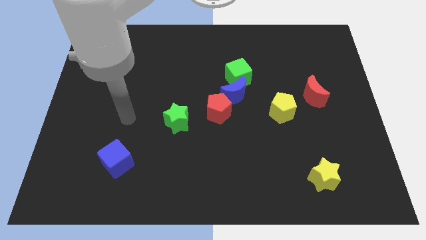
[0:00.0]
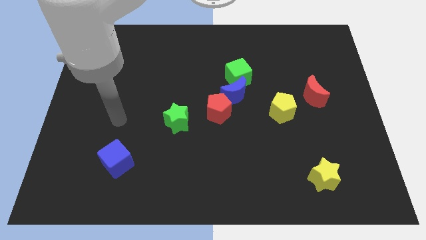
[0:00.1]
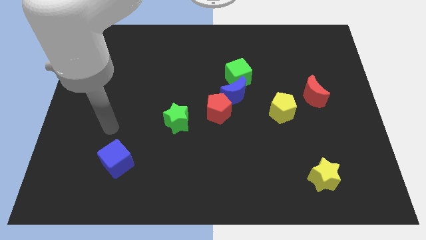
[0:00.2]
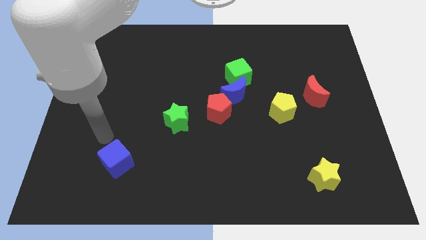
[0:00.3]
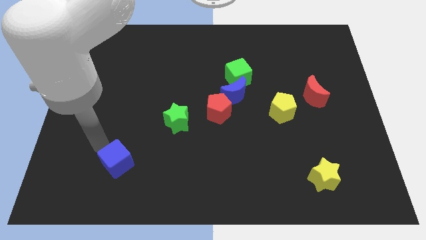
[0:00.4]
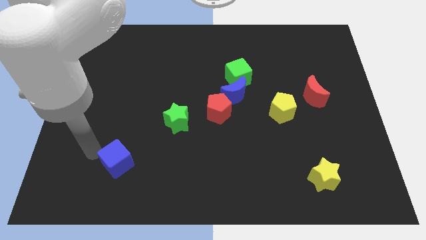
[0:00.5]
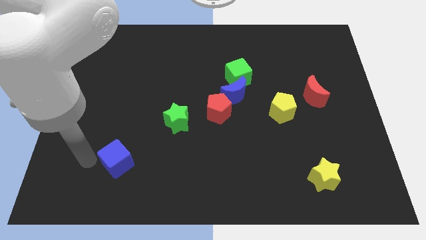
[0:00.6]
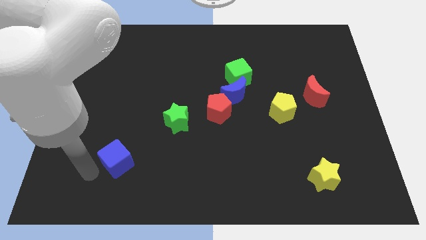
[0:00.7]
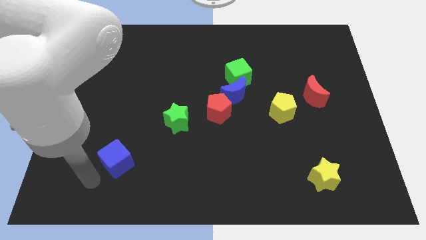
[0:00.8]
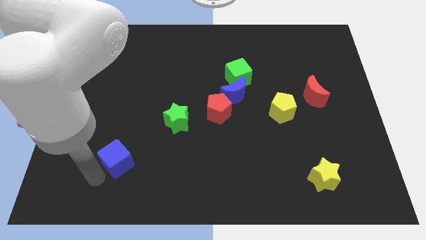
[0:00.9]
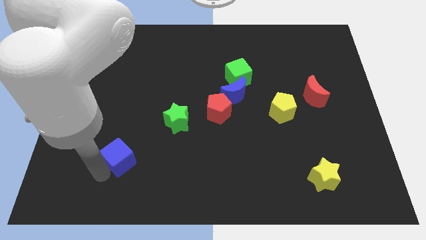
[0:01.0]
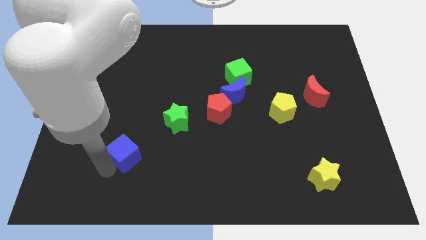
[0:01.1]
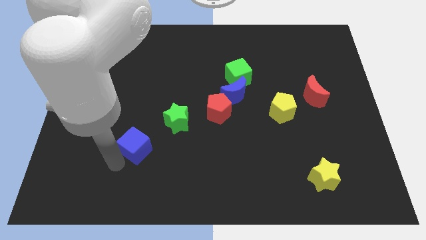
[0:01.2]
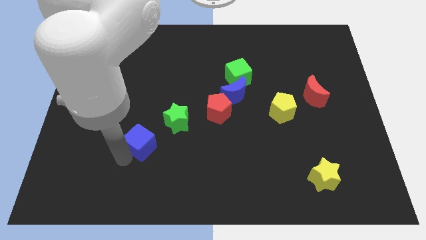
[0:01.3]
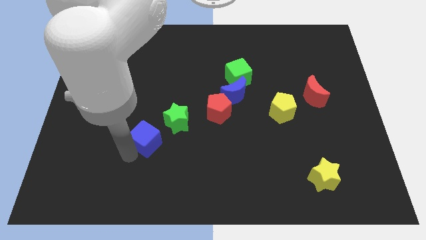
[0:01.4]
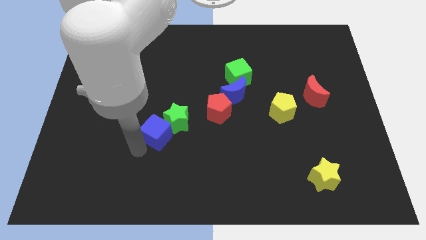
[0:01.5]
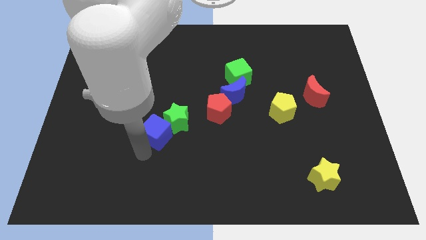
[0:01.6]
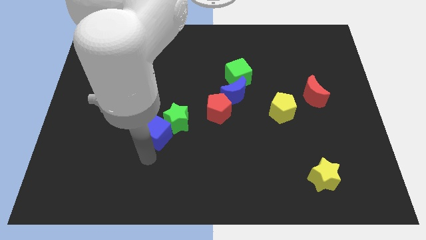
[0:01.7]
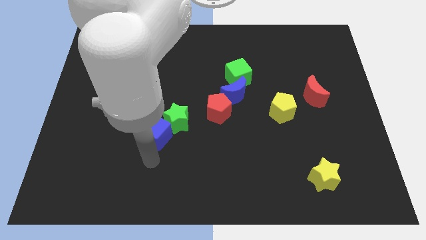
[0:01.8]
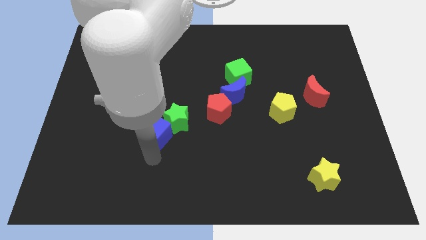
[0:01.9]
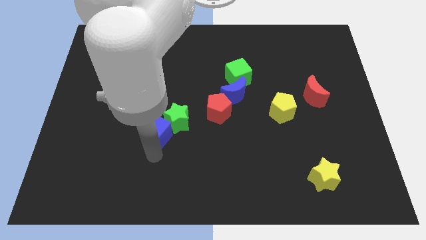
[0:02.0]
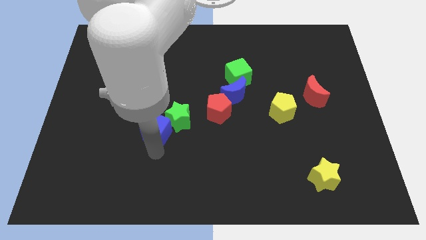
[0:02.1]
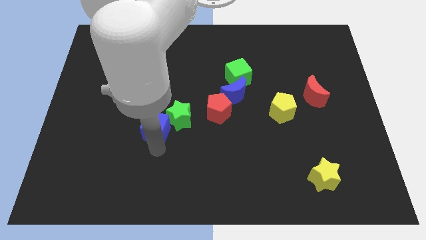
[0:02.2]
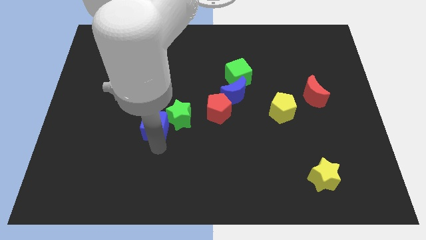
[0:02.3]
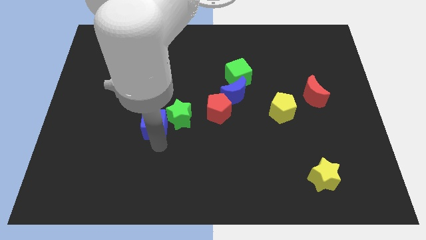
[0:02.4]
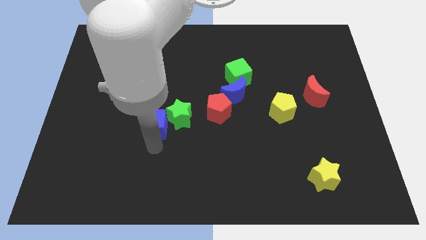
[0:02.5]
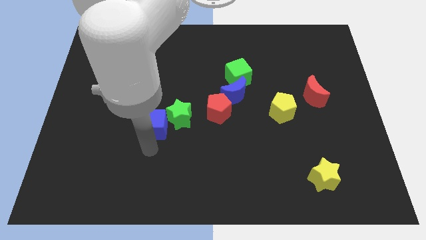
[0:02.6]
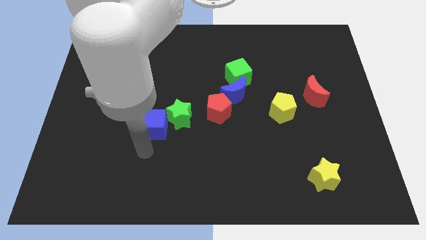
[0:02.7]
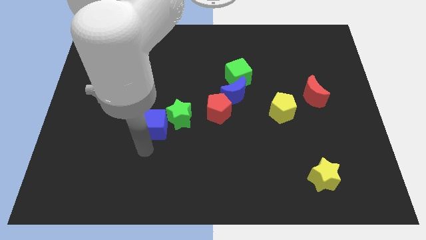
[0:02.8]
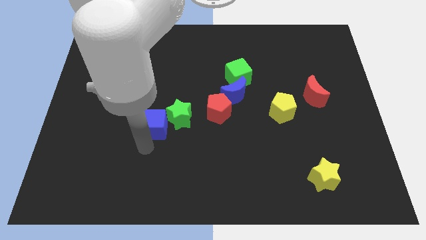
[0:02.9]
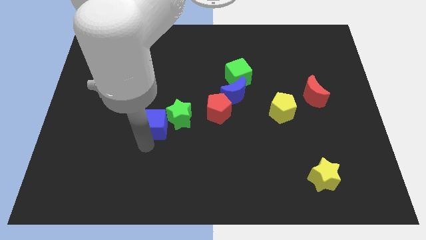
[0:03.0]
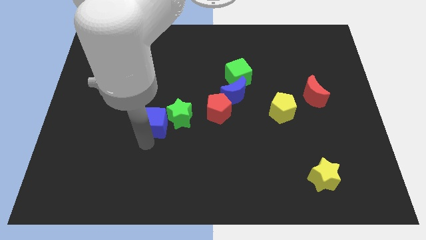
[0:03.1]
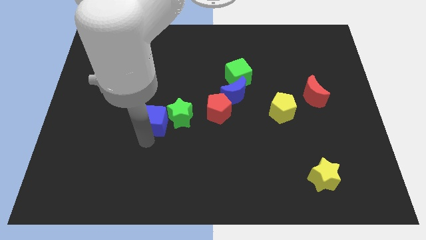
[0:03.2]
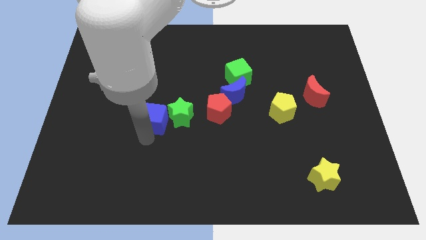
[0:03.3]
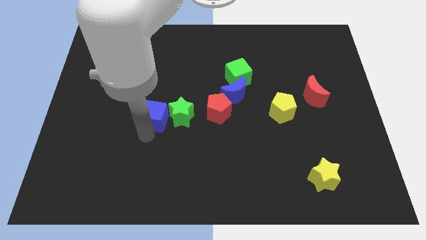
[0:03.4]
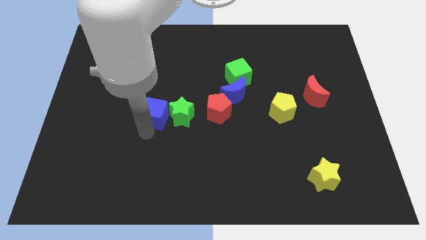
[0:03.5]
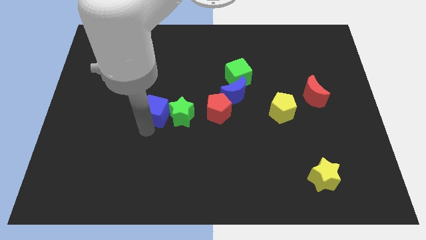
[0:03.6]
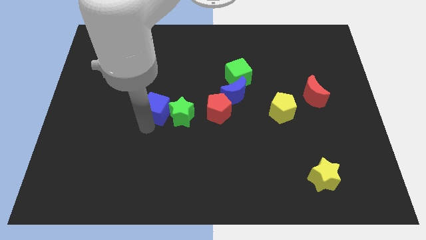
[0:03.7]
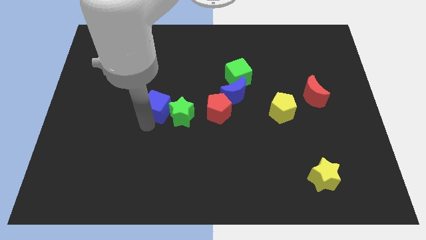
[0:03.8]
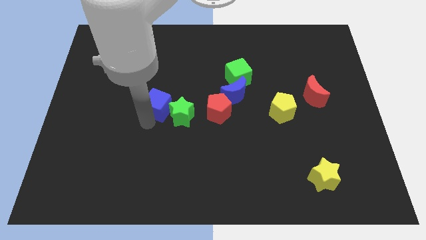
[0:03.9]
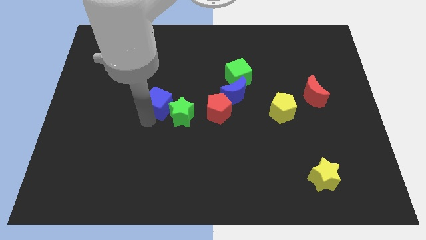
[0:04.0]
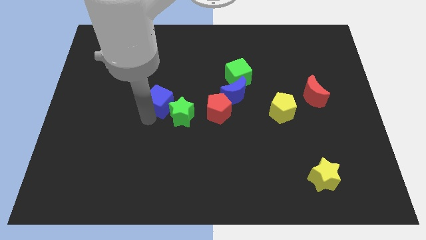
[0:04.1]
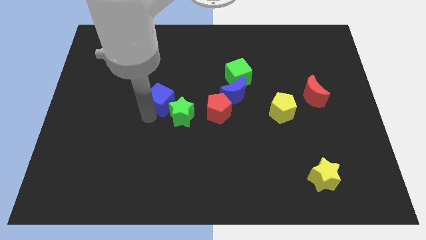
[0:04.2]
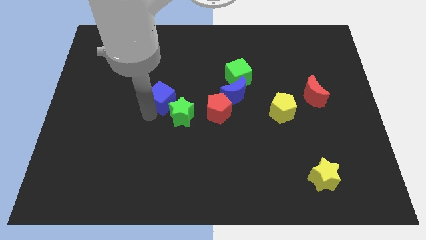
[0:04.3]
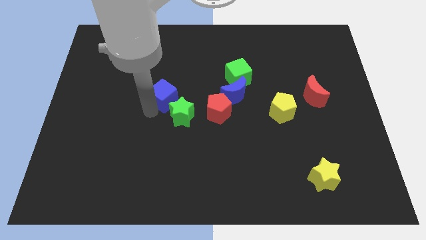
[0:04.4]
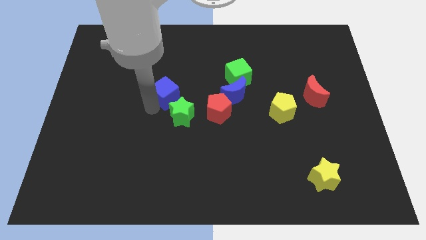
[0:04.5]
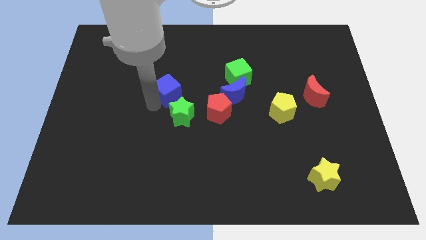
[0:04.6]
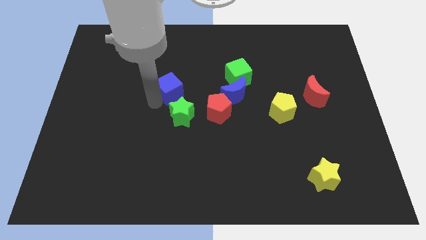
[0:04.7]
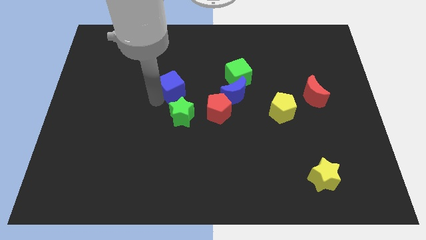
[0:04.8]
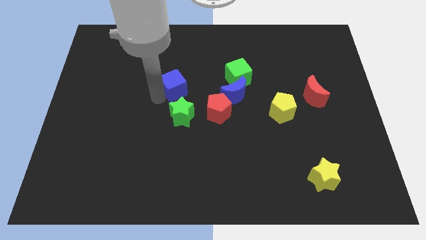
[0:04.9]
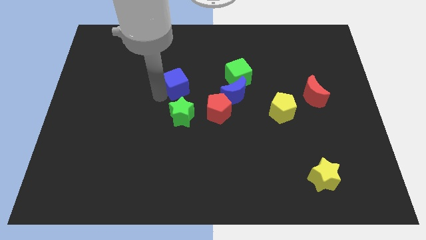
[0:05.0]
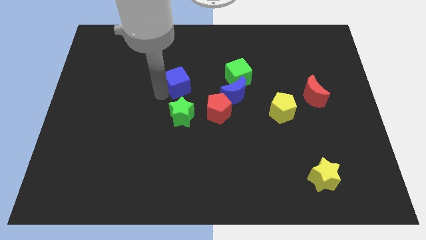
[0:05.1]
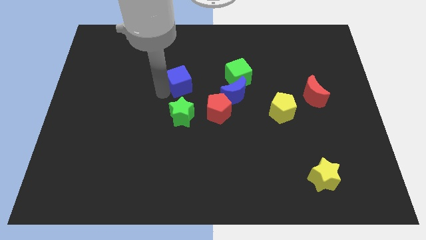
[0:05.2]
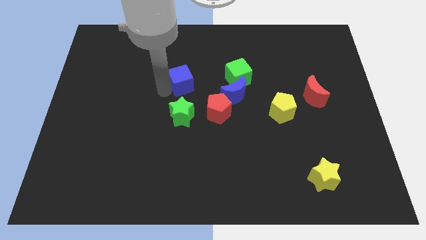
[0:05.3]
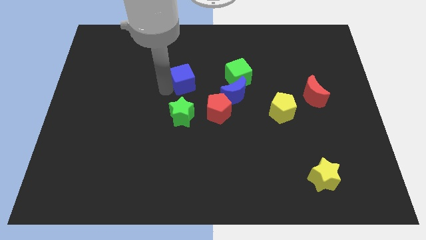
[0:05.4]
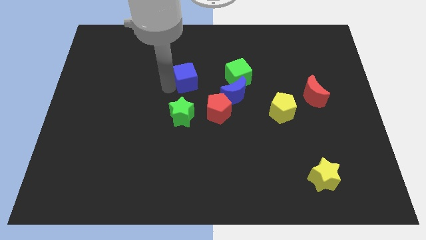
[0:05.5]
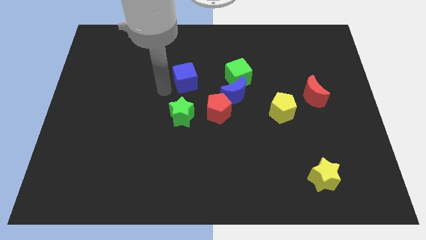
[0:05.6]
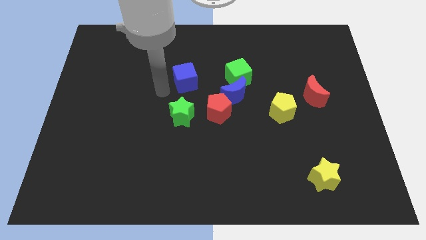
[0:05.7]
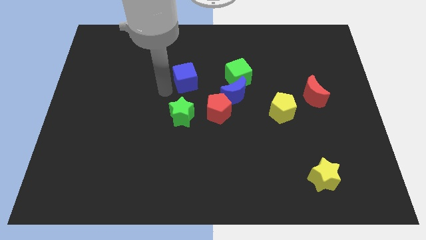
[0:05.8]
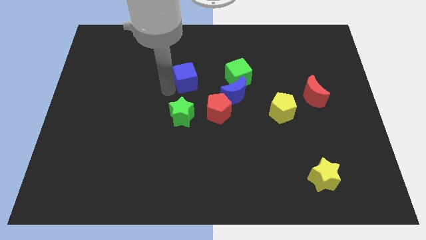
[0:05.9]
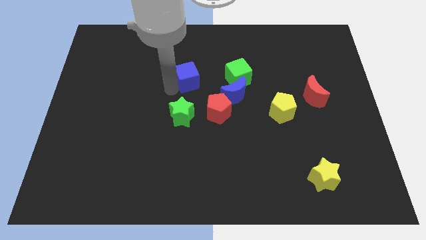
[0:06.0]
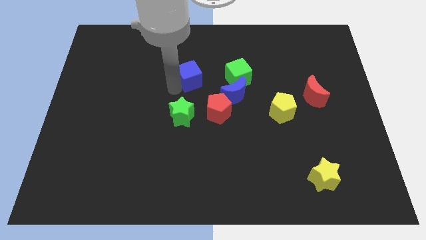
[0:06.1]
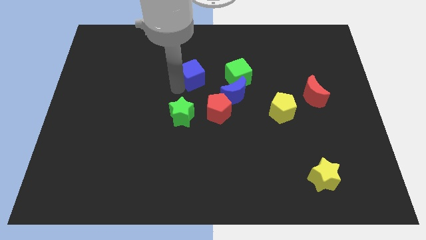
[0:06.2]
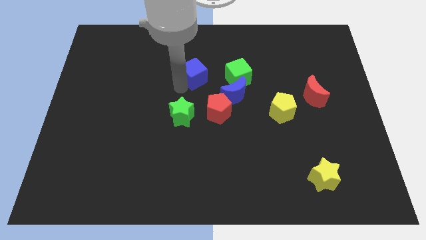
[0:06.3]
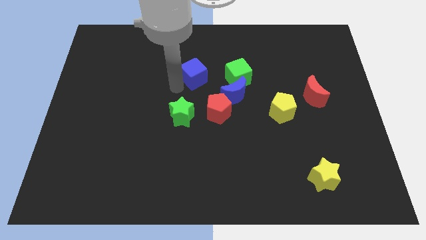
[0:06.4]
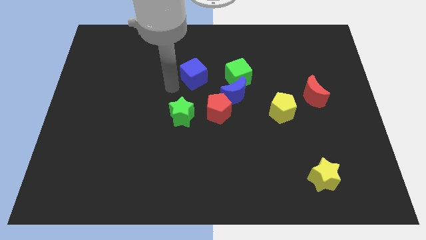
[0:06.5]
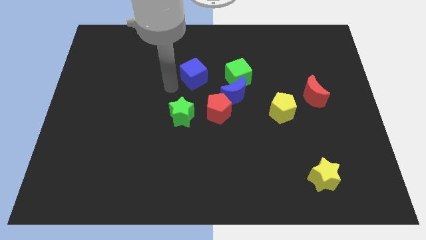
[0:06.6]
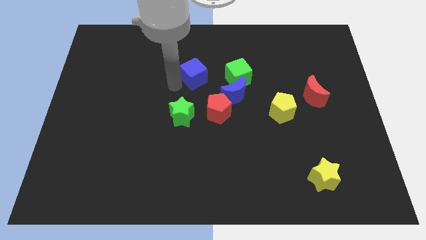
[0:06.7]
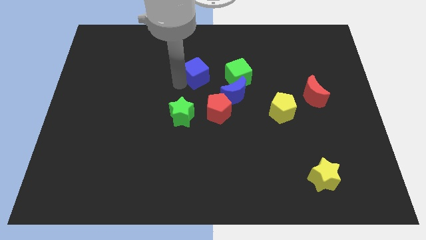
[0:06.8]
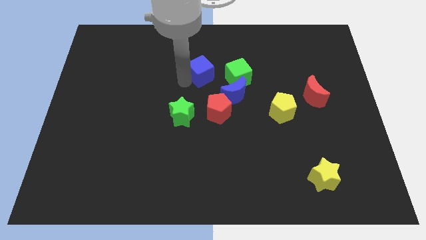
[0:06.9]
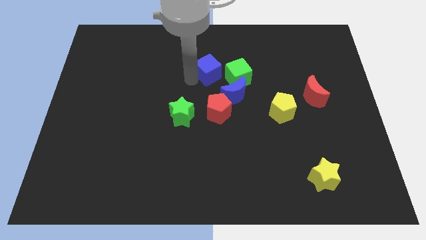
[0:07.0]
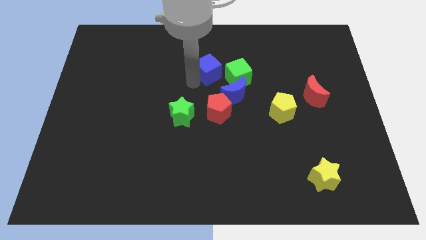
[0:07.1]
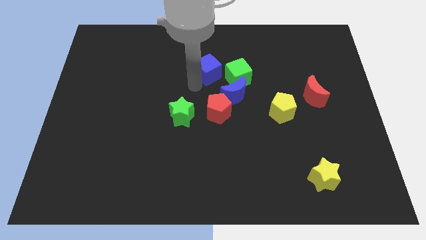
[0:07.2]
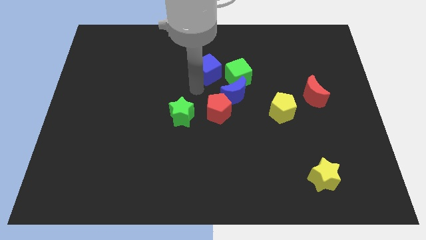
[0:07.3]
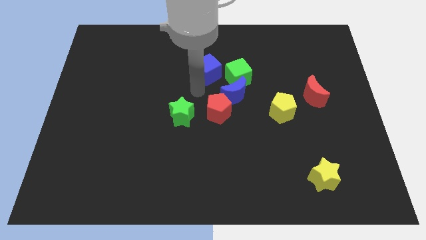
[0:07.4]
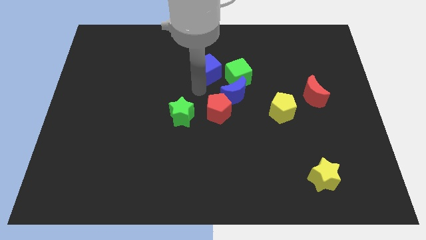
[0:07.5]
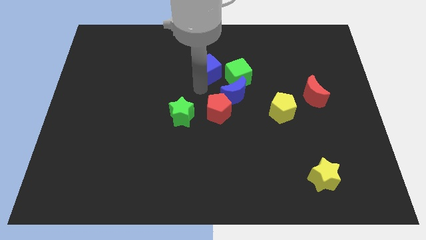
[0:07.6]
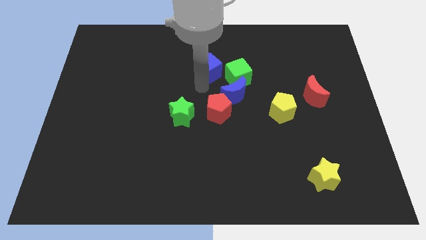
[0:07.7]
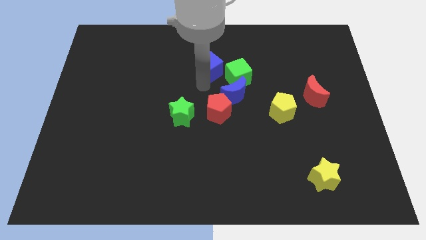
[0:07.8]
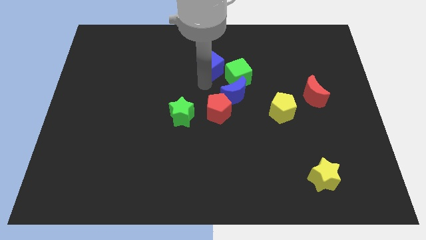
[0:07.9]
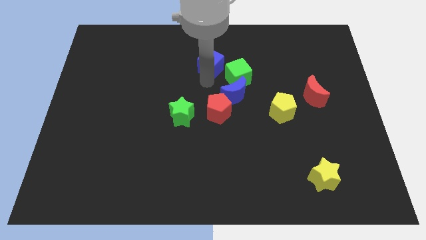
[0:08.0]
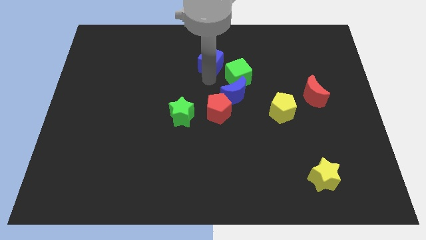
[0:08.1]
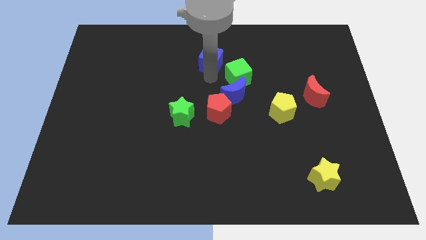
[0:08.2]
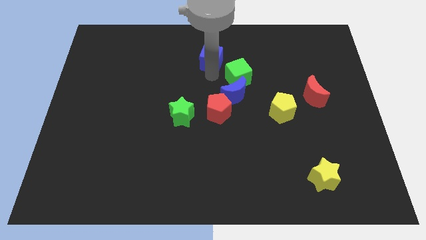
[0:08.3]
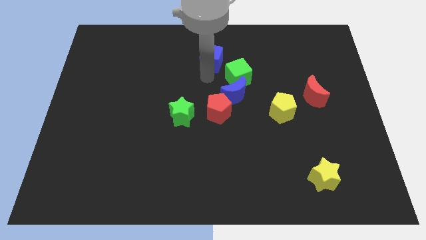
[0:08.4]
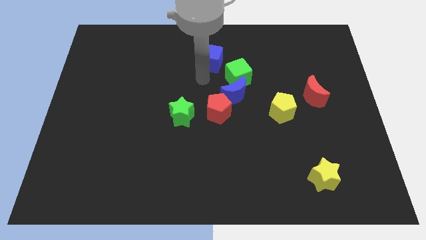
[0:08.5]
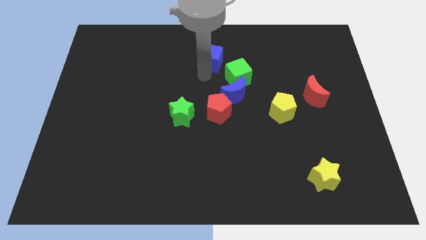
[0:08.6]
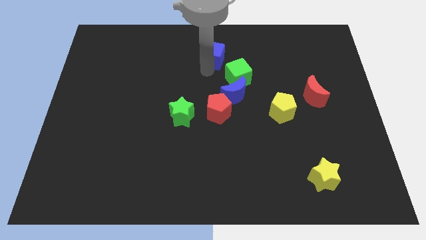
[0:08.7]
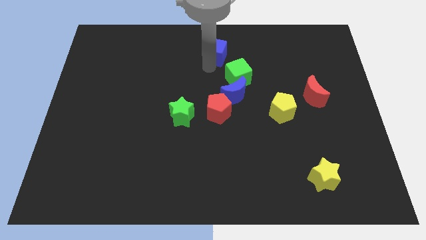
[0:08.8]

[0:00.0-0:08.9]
move the blue cube to the top
